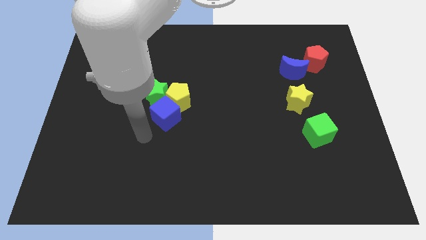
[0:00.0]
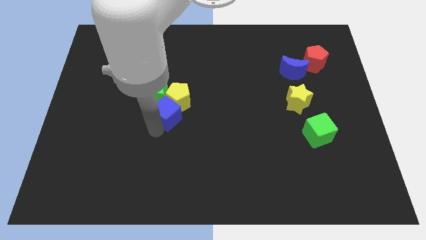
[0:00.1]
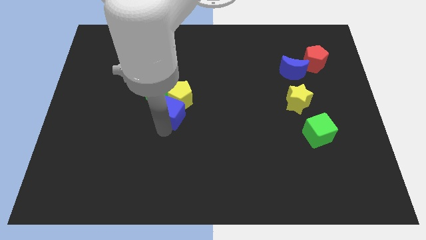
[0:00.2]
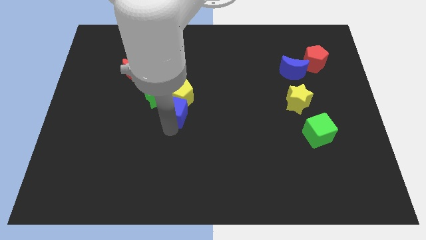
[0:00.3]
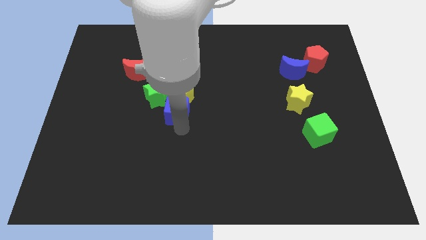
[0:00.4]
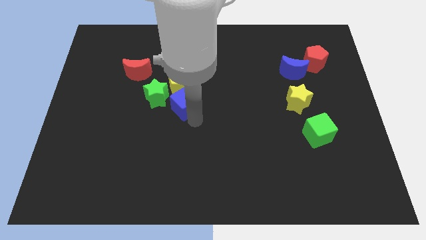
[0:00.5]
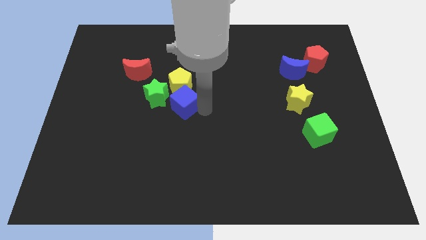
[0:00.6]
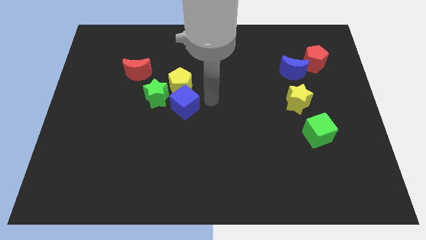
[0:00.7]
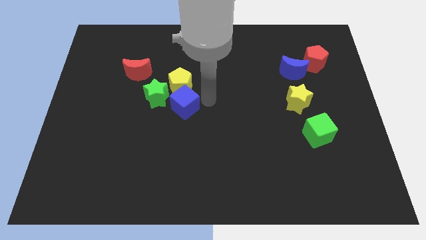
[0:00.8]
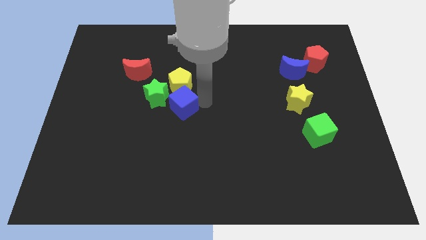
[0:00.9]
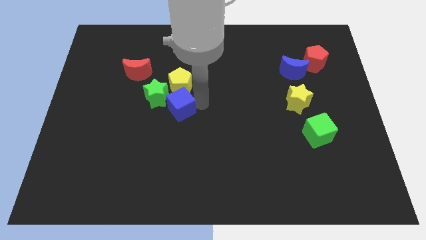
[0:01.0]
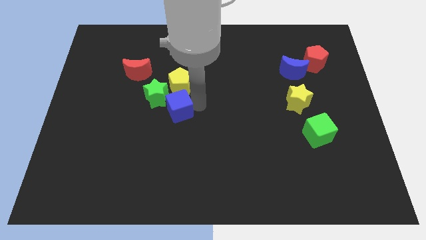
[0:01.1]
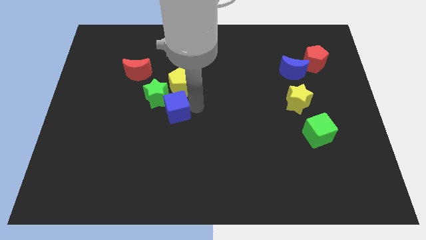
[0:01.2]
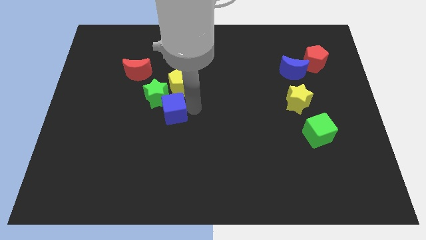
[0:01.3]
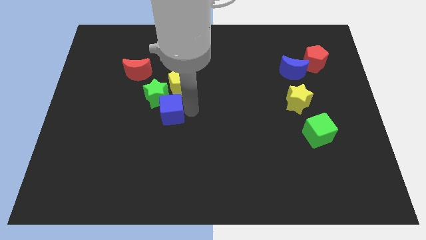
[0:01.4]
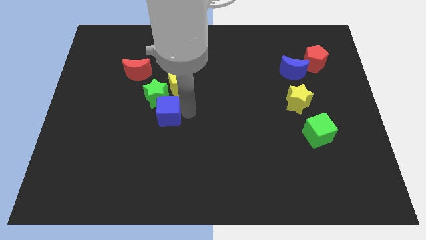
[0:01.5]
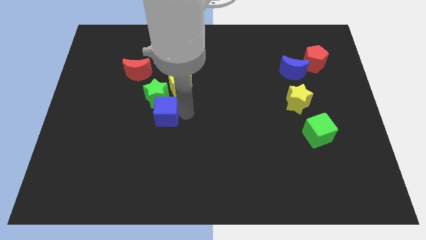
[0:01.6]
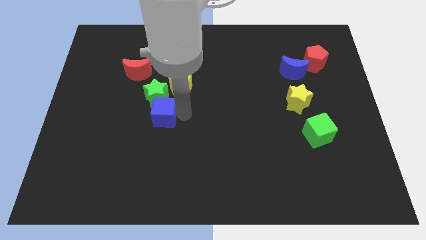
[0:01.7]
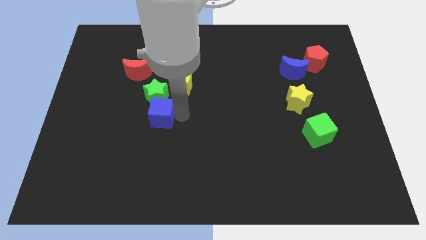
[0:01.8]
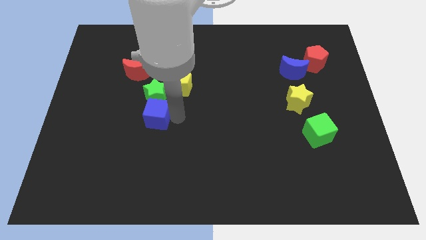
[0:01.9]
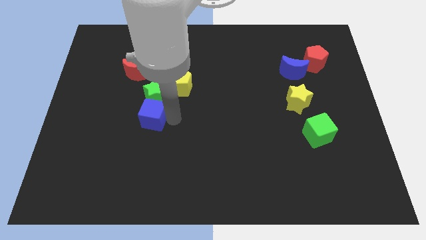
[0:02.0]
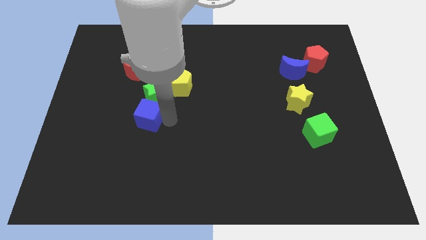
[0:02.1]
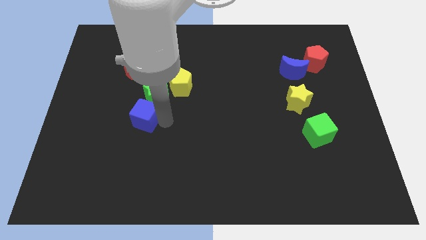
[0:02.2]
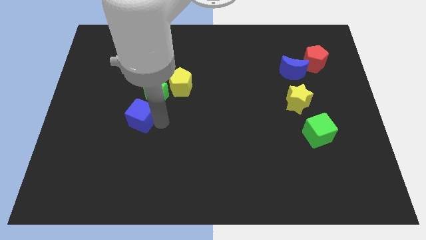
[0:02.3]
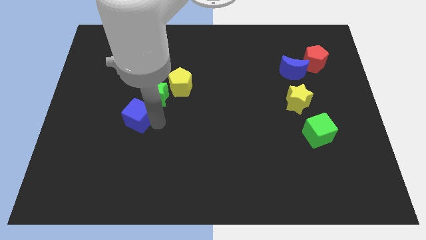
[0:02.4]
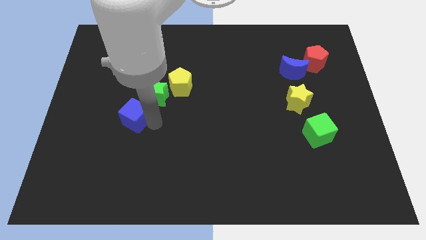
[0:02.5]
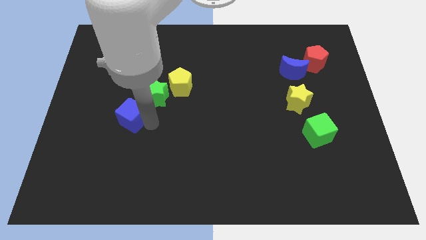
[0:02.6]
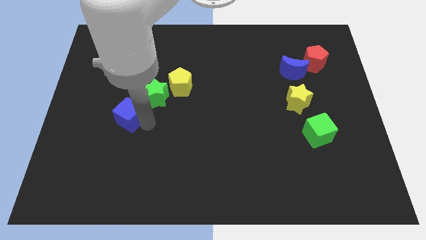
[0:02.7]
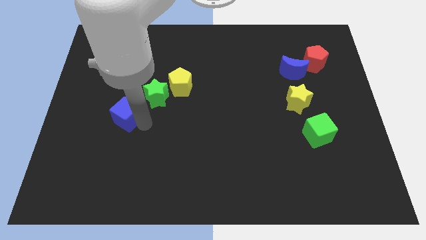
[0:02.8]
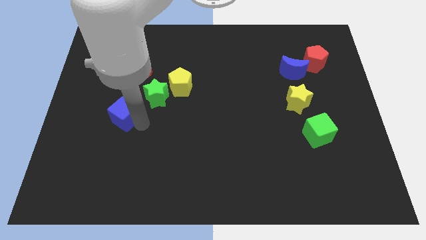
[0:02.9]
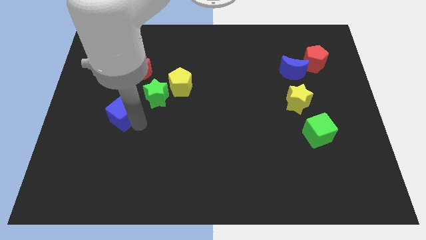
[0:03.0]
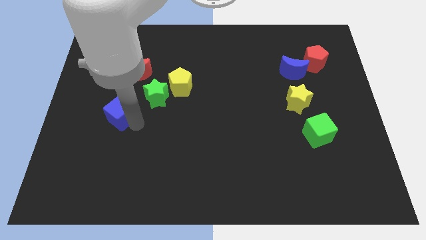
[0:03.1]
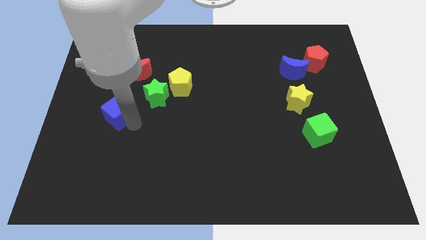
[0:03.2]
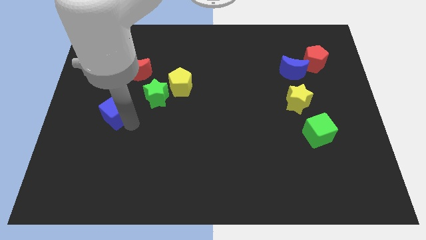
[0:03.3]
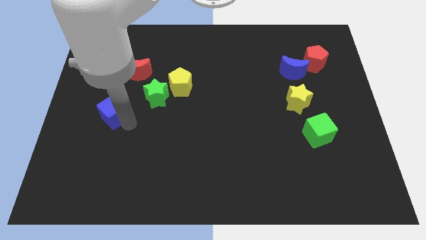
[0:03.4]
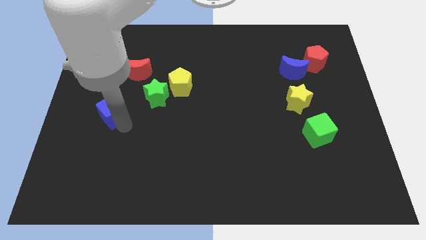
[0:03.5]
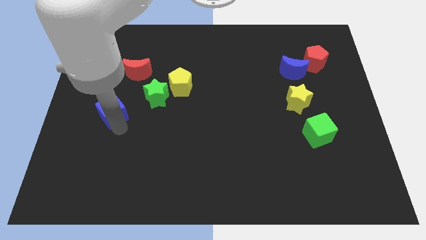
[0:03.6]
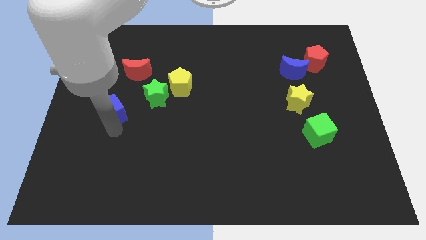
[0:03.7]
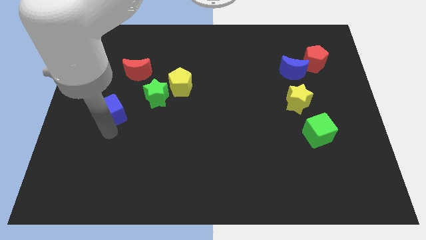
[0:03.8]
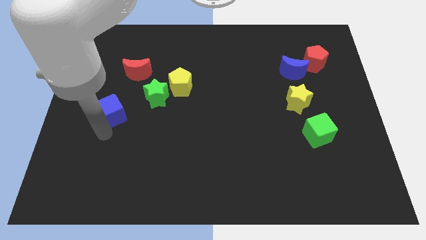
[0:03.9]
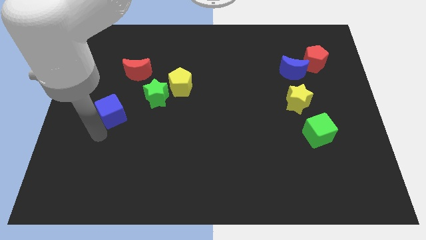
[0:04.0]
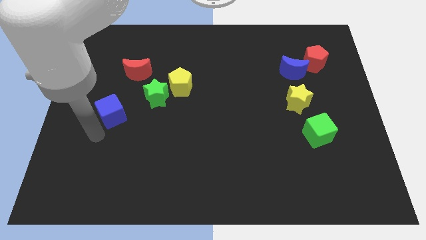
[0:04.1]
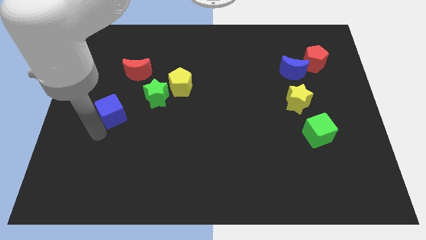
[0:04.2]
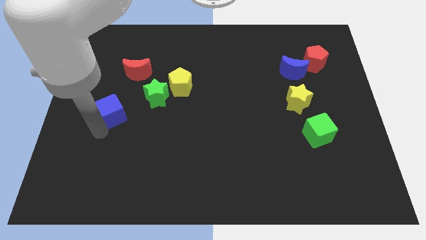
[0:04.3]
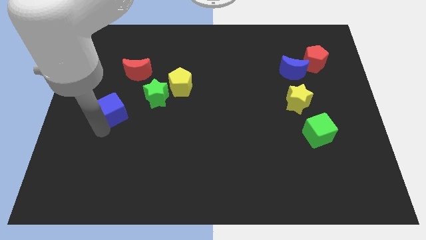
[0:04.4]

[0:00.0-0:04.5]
slide the blue cube somewhat diagonally up and to the left

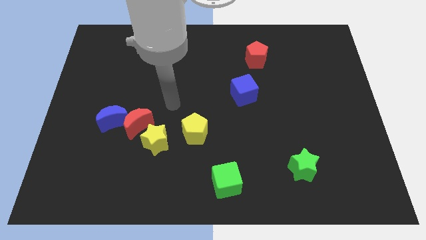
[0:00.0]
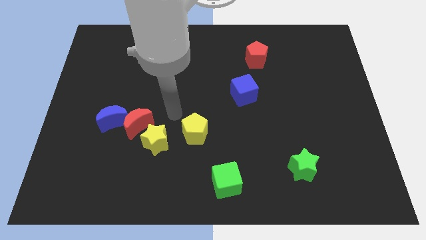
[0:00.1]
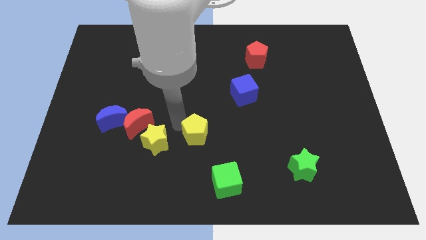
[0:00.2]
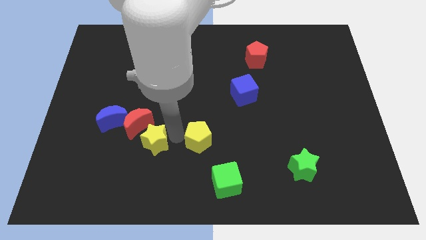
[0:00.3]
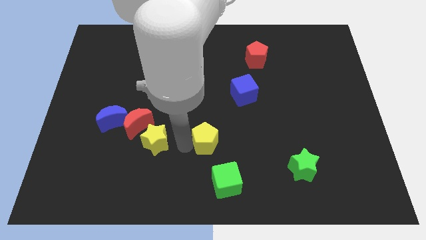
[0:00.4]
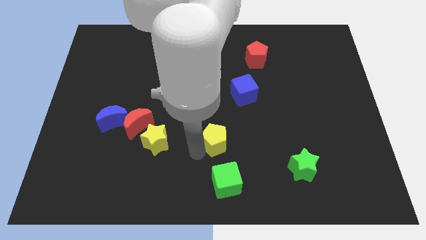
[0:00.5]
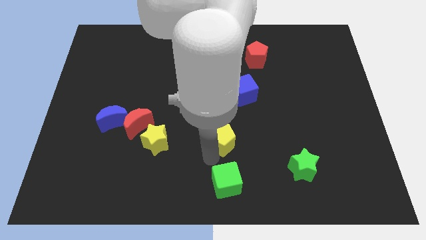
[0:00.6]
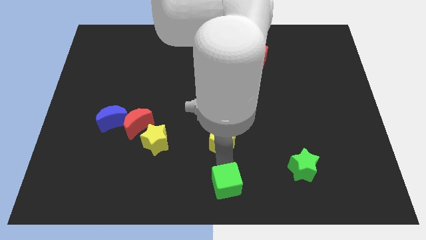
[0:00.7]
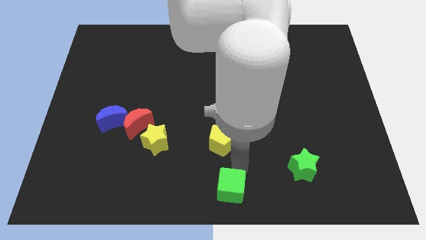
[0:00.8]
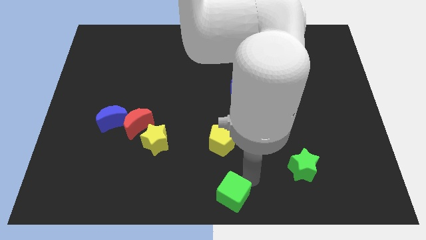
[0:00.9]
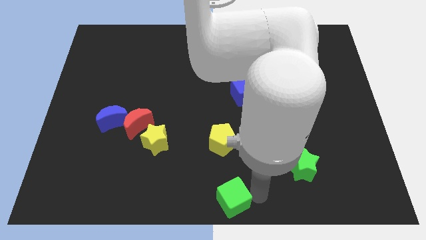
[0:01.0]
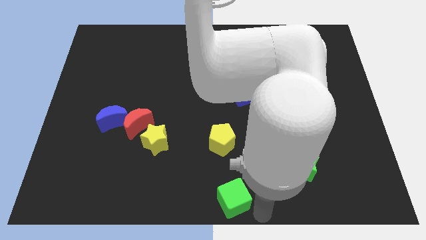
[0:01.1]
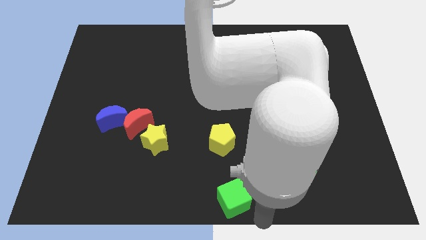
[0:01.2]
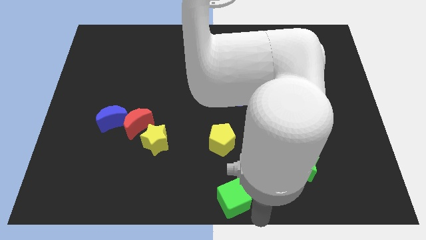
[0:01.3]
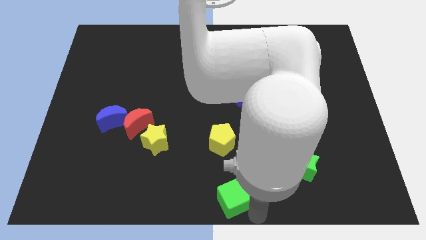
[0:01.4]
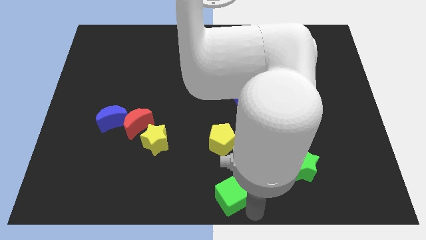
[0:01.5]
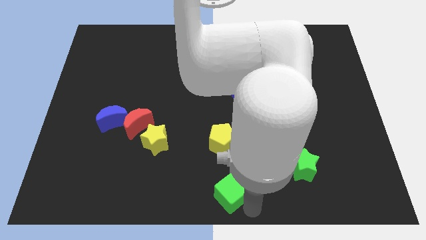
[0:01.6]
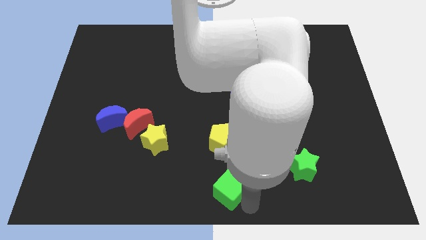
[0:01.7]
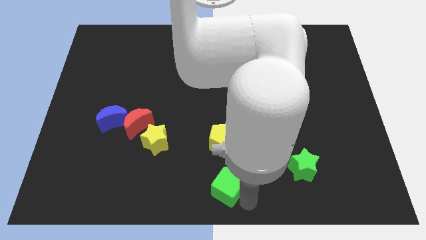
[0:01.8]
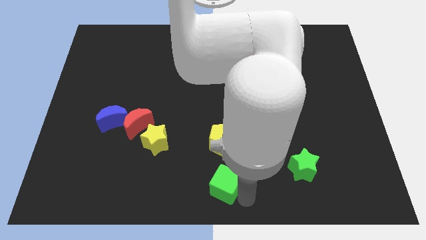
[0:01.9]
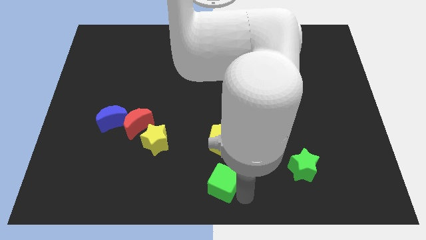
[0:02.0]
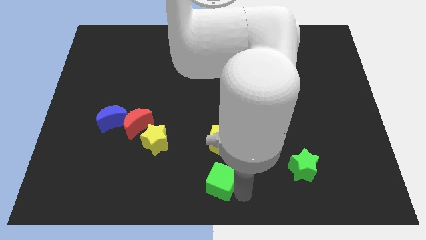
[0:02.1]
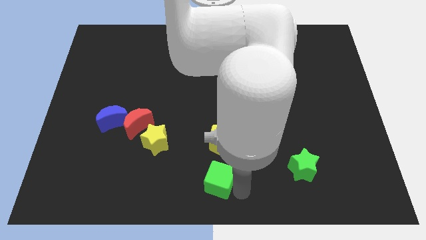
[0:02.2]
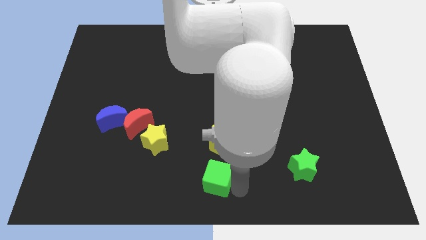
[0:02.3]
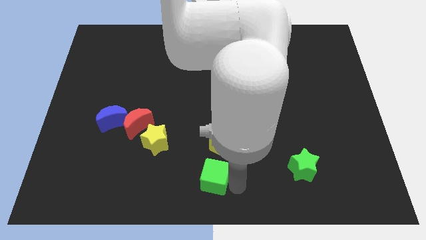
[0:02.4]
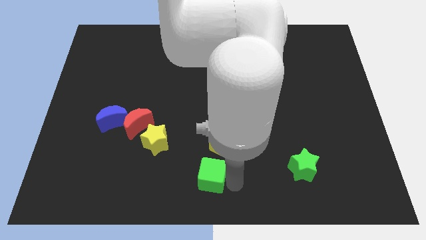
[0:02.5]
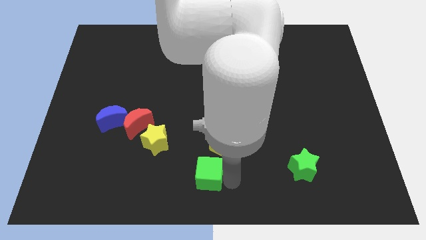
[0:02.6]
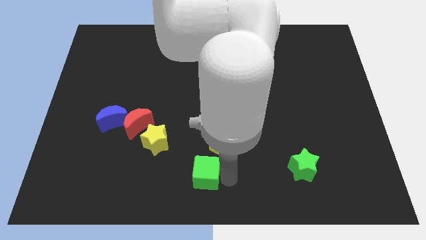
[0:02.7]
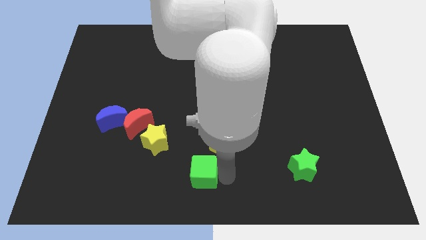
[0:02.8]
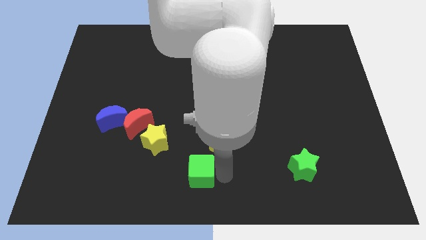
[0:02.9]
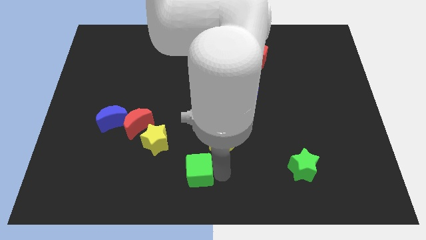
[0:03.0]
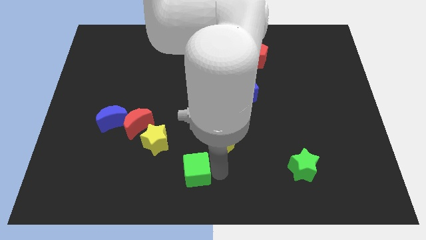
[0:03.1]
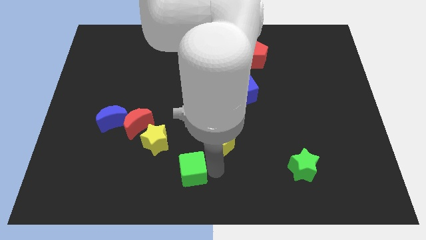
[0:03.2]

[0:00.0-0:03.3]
slightly move the green cube left

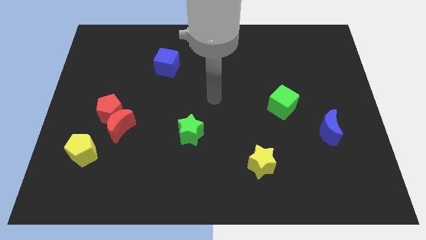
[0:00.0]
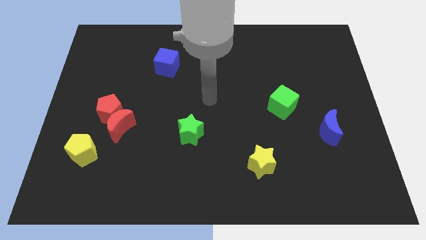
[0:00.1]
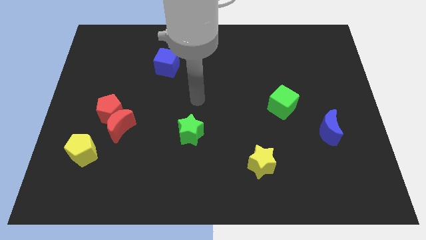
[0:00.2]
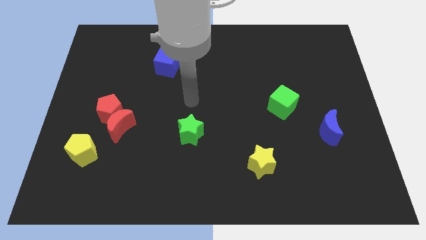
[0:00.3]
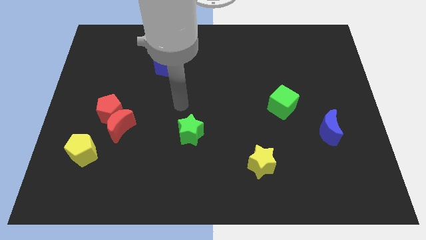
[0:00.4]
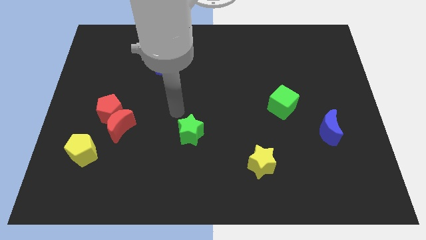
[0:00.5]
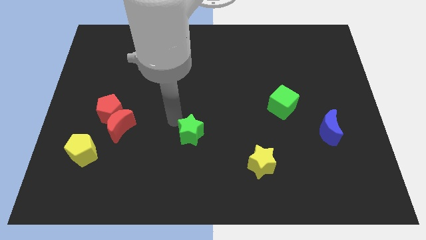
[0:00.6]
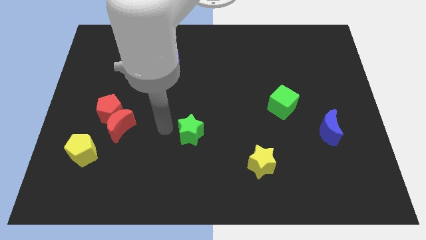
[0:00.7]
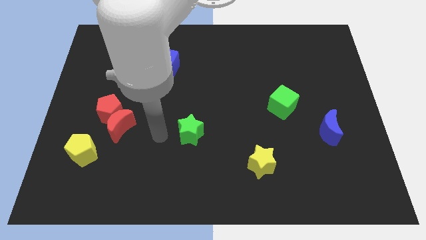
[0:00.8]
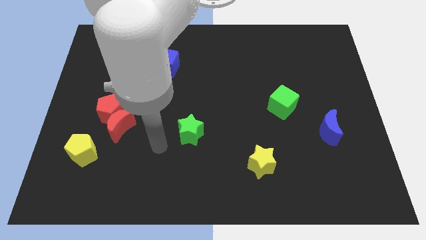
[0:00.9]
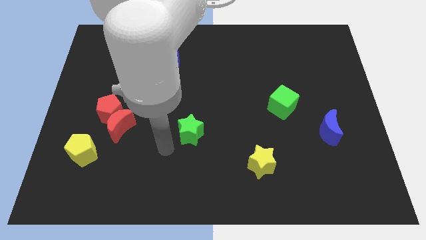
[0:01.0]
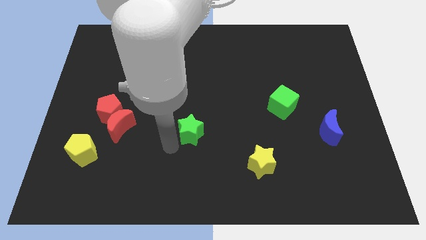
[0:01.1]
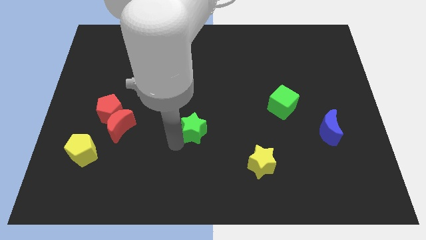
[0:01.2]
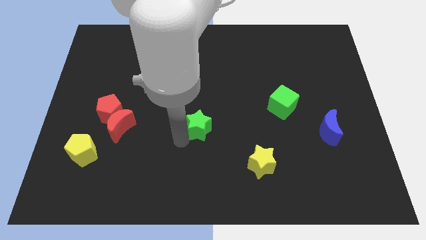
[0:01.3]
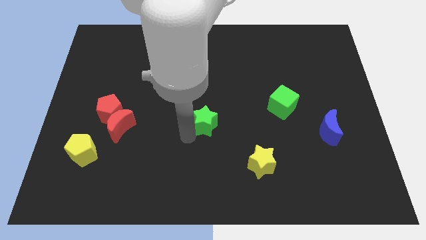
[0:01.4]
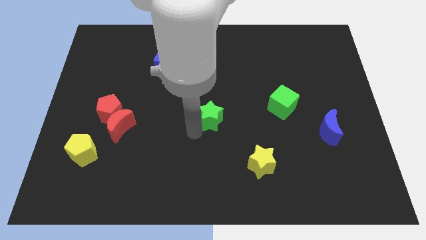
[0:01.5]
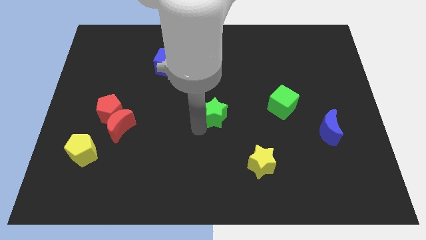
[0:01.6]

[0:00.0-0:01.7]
slightly move the green star upwards and to the right diagonally
